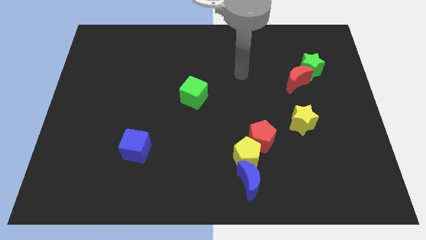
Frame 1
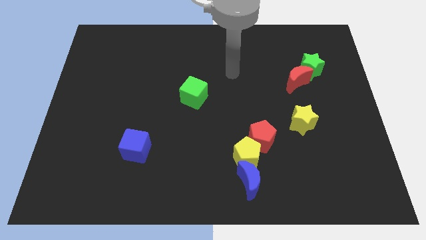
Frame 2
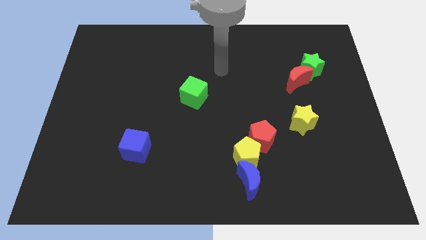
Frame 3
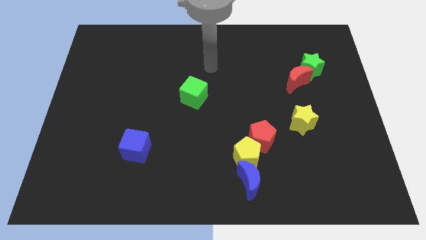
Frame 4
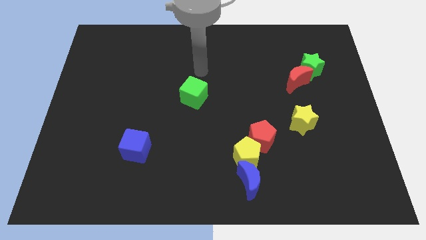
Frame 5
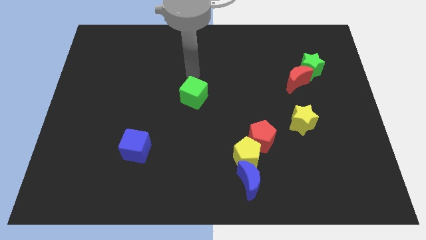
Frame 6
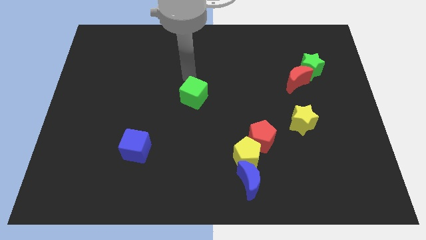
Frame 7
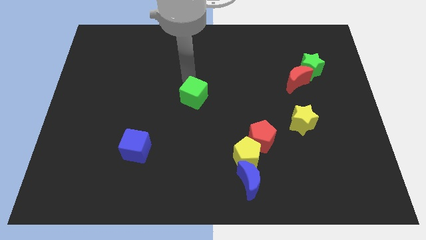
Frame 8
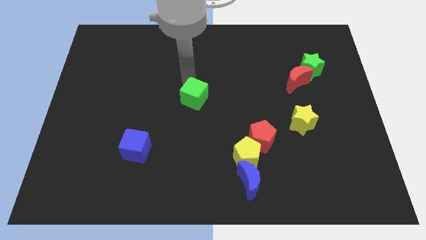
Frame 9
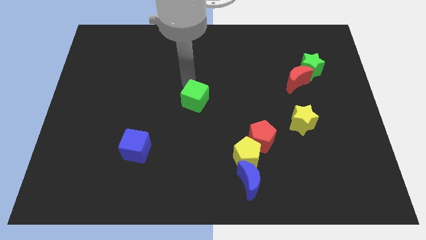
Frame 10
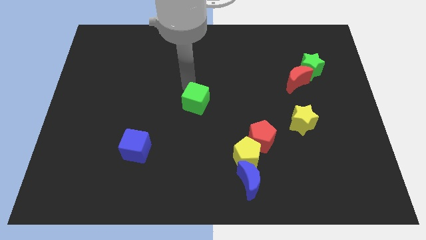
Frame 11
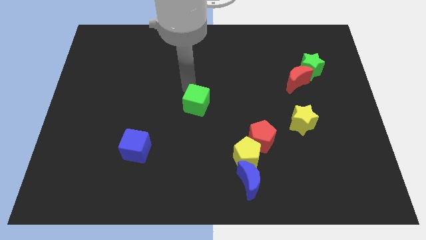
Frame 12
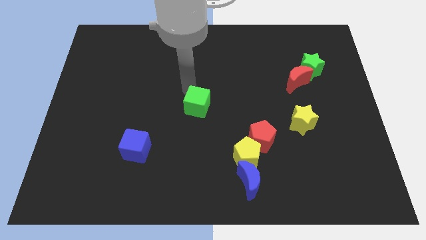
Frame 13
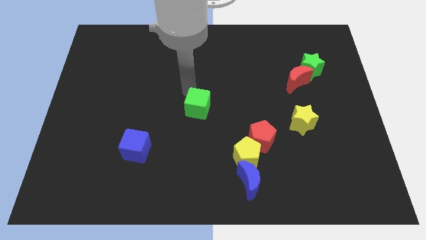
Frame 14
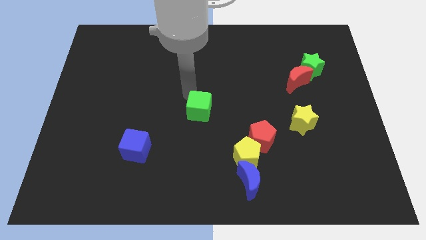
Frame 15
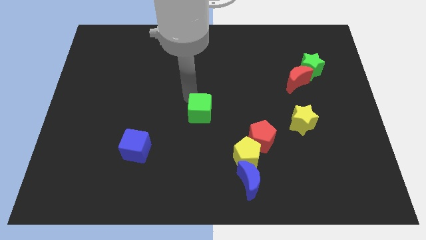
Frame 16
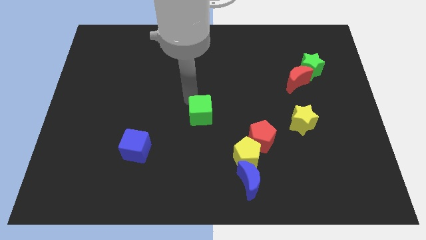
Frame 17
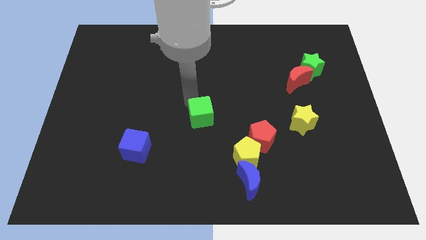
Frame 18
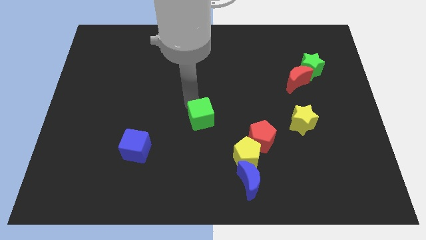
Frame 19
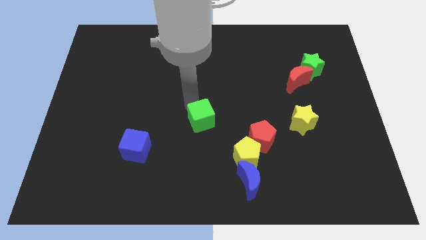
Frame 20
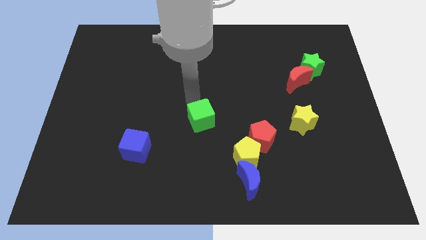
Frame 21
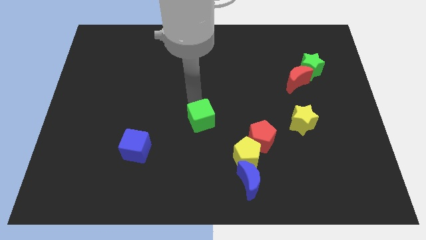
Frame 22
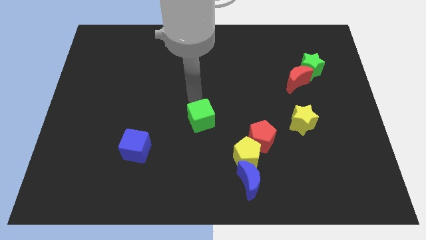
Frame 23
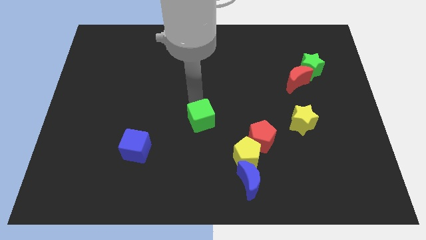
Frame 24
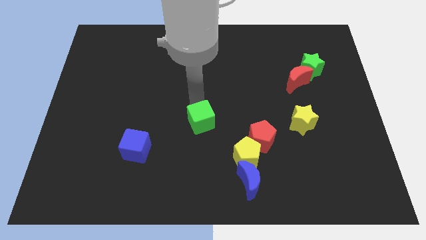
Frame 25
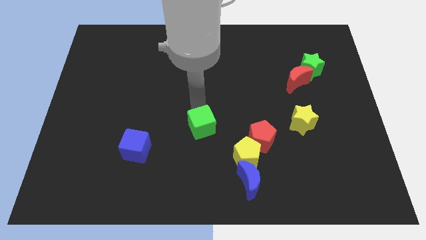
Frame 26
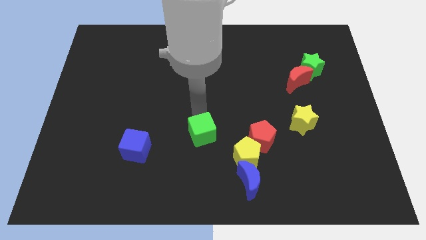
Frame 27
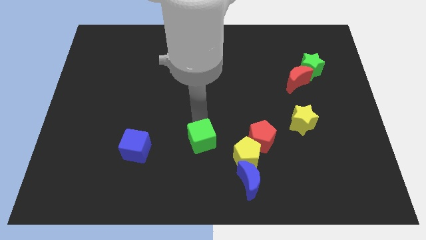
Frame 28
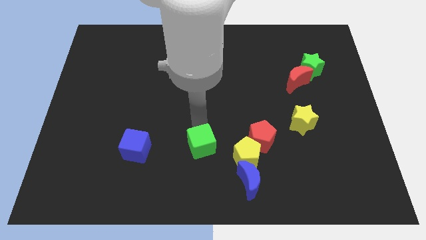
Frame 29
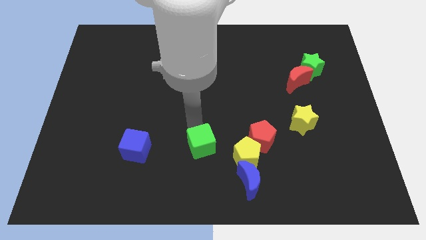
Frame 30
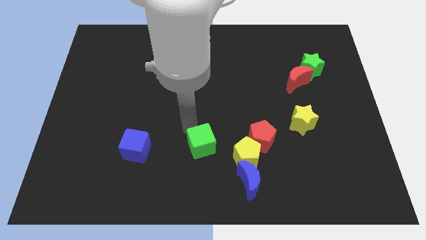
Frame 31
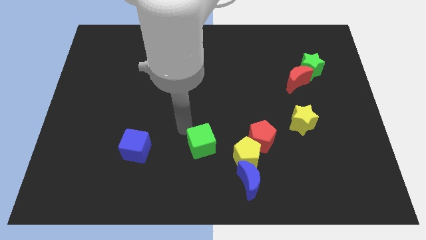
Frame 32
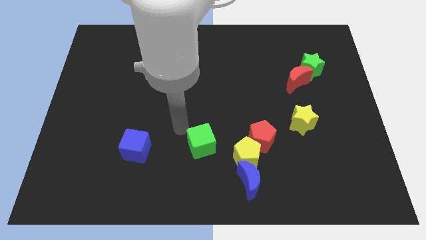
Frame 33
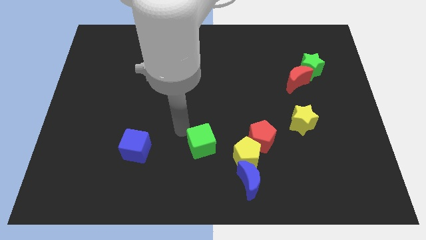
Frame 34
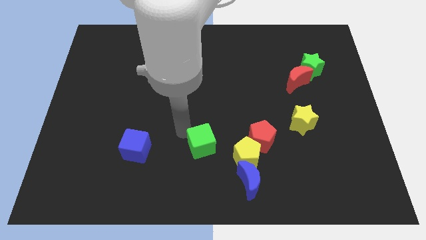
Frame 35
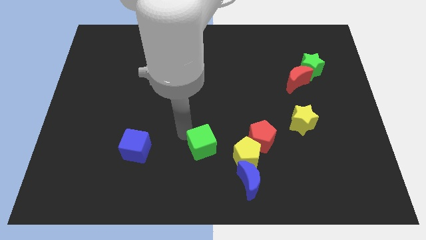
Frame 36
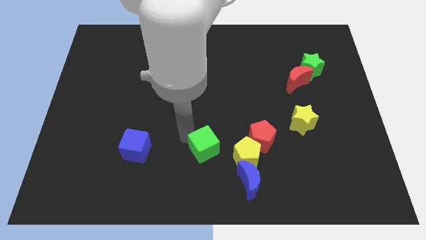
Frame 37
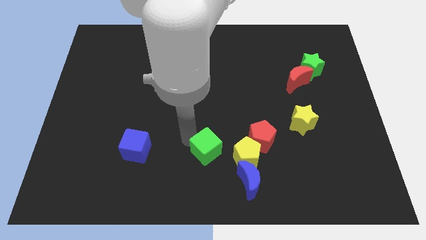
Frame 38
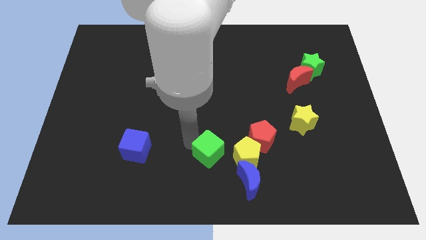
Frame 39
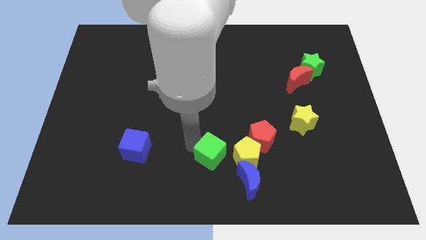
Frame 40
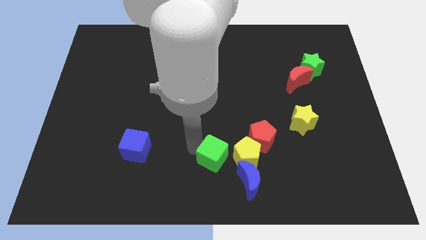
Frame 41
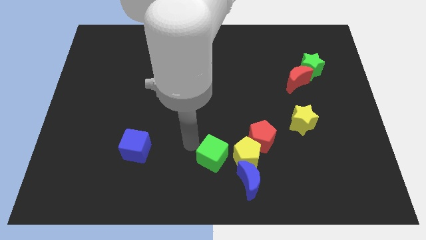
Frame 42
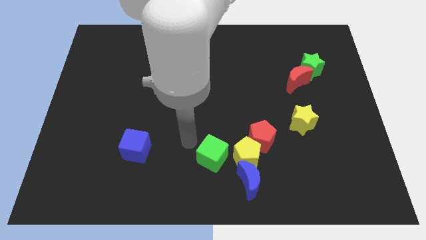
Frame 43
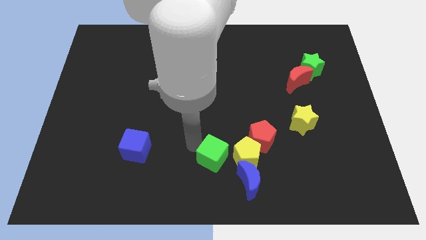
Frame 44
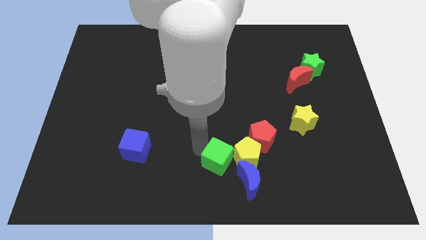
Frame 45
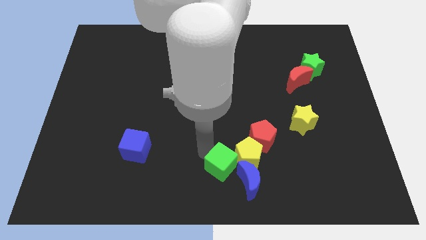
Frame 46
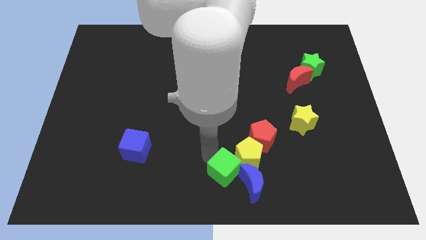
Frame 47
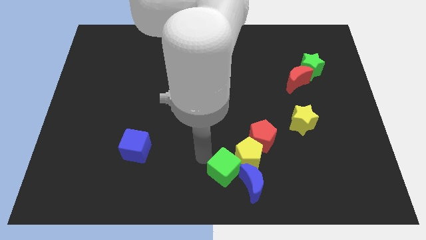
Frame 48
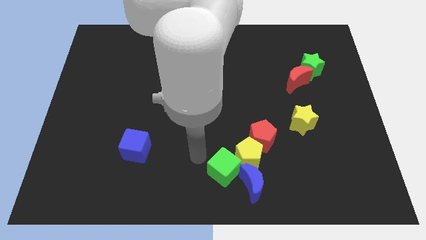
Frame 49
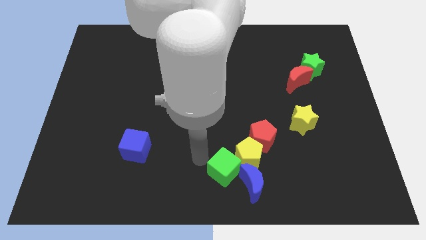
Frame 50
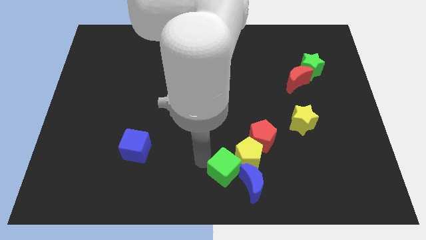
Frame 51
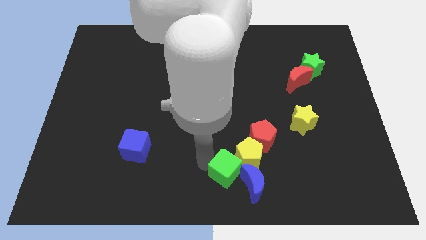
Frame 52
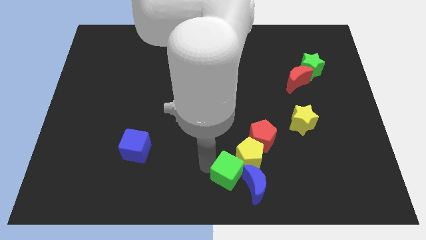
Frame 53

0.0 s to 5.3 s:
put the green cube close to the blue moon

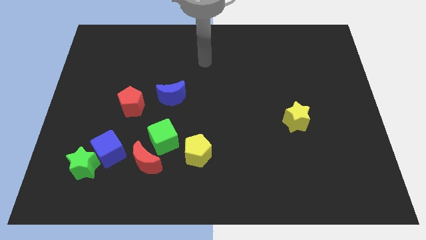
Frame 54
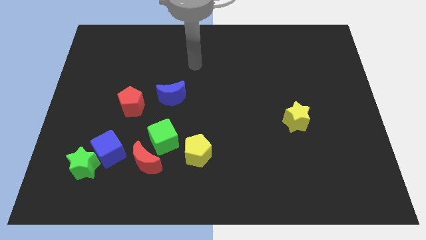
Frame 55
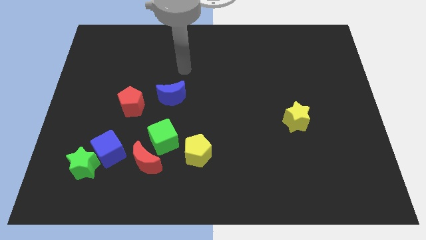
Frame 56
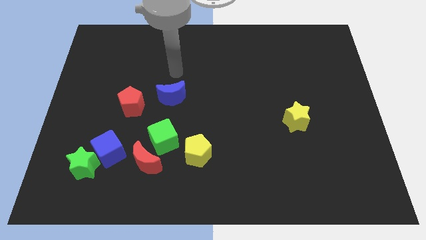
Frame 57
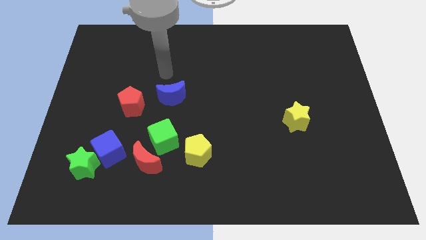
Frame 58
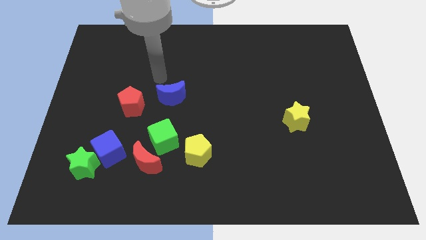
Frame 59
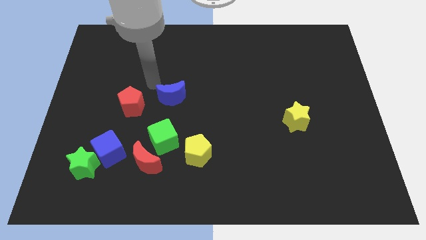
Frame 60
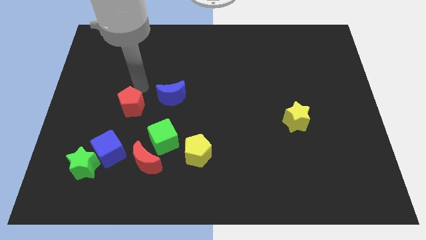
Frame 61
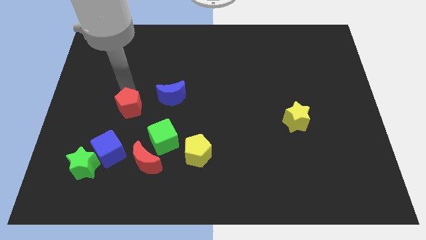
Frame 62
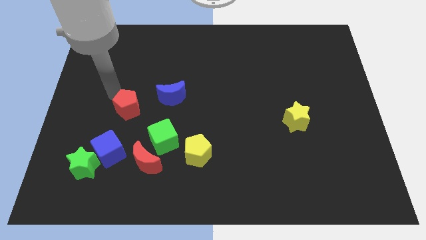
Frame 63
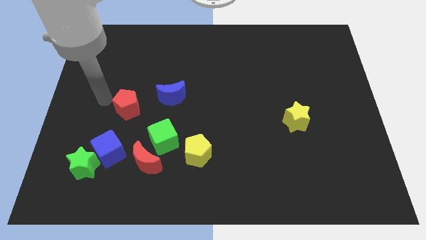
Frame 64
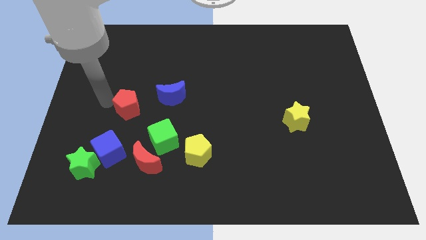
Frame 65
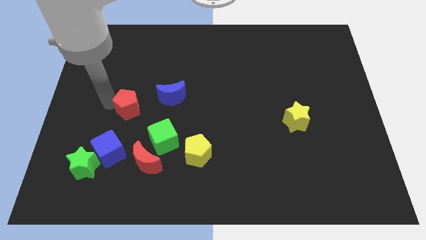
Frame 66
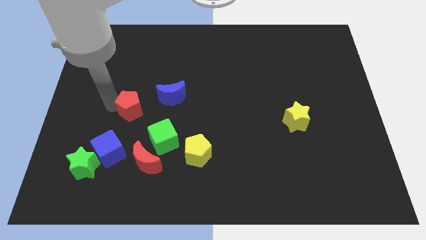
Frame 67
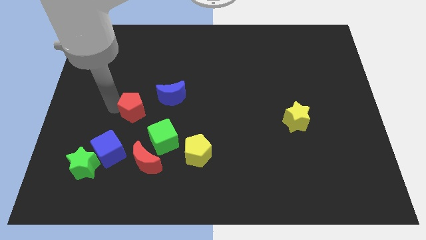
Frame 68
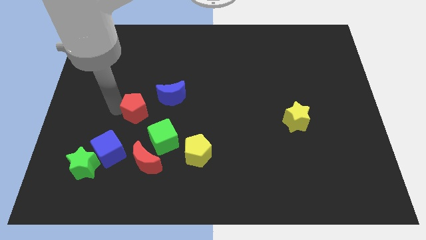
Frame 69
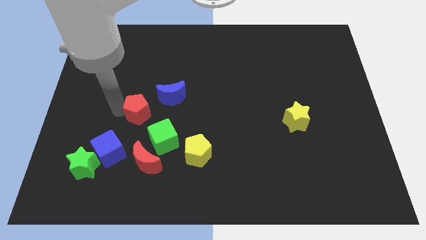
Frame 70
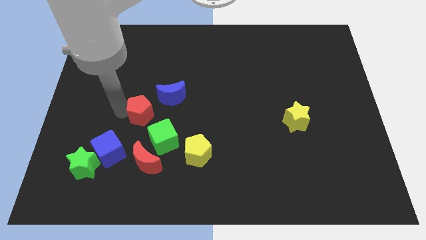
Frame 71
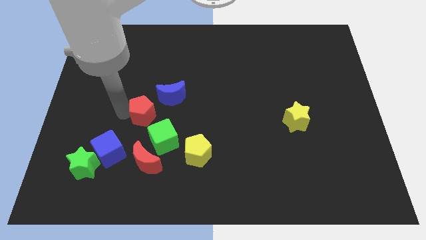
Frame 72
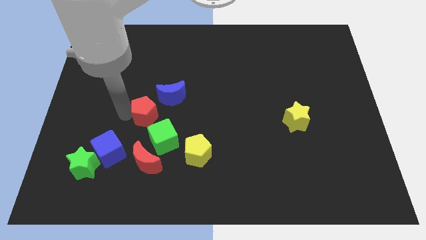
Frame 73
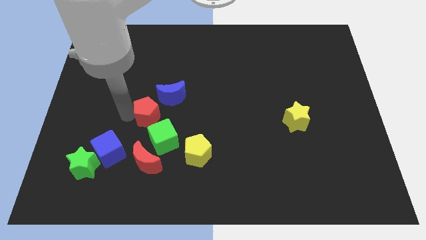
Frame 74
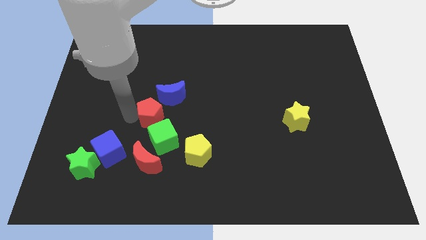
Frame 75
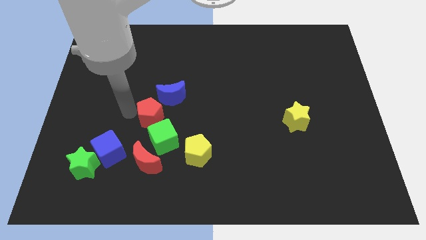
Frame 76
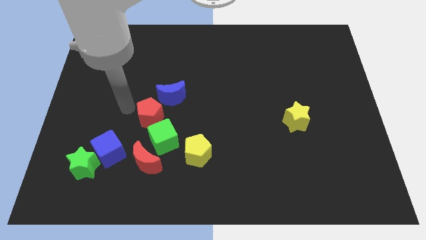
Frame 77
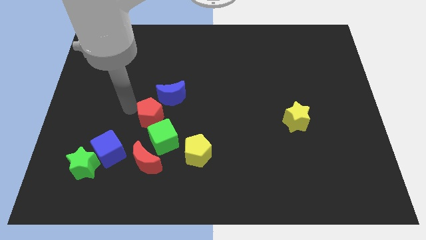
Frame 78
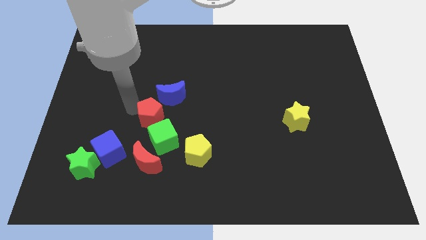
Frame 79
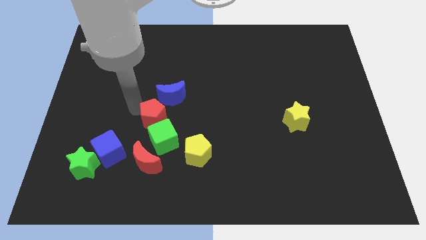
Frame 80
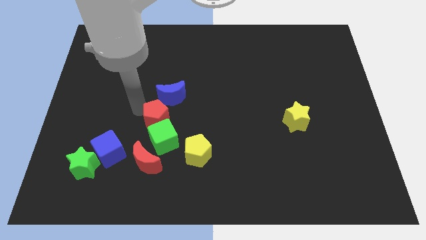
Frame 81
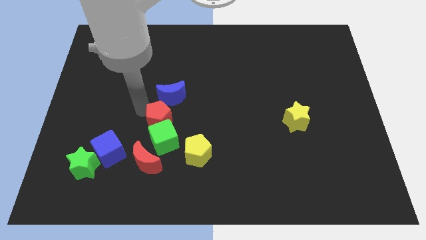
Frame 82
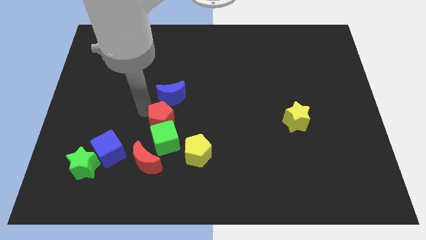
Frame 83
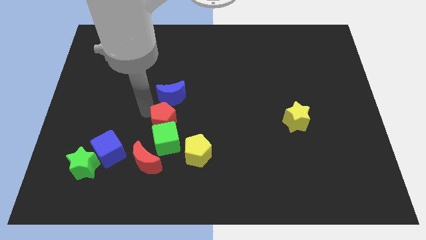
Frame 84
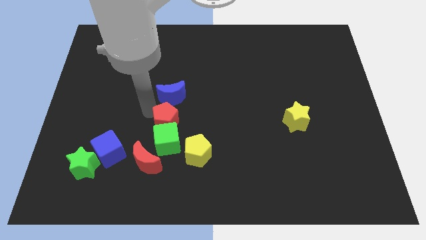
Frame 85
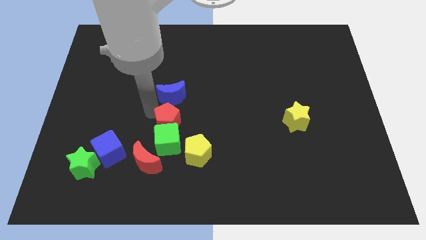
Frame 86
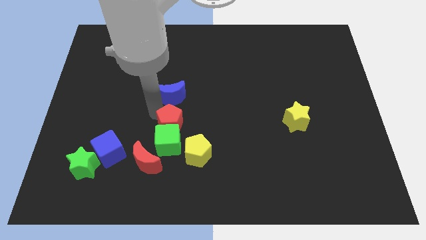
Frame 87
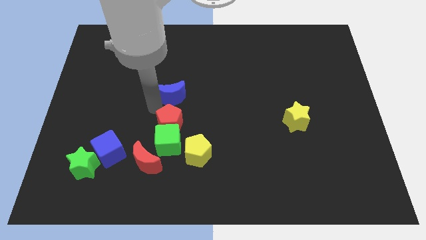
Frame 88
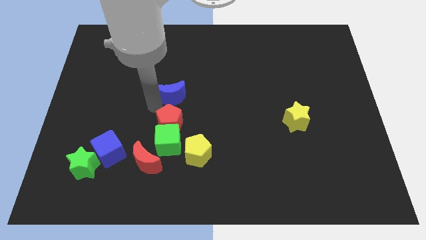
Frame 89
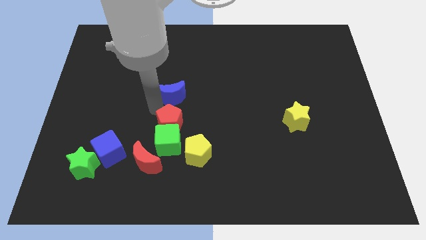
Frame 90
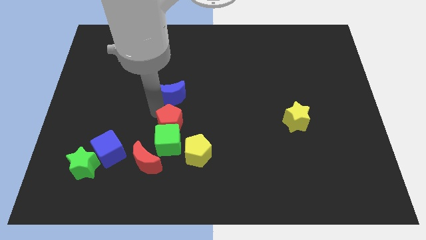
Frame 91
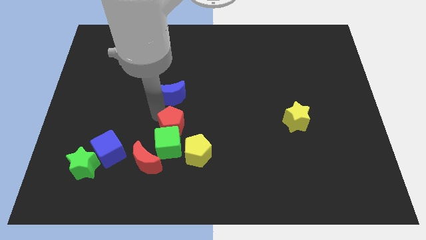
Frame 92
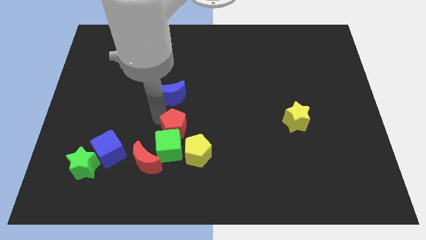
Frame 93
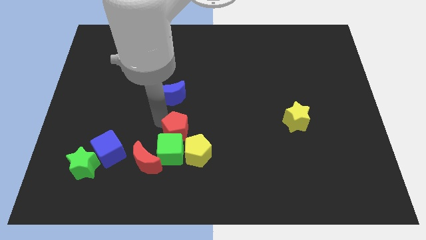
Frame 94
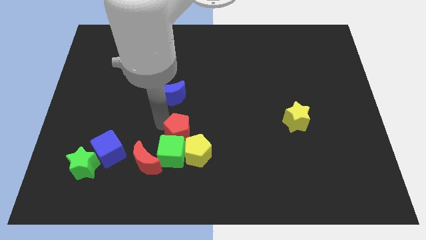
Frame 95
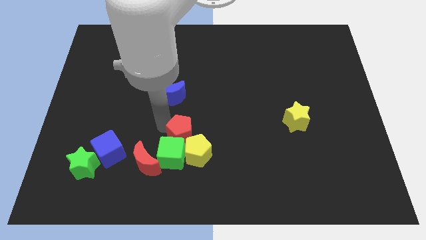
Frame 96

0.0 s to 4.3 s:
push the red pentagon to the yellow pentagon
